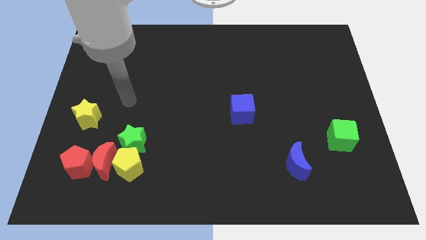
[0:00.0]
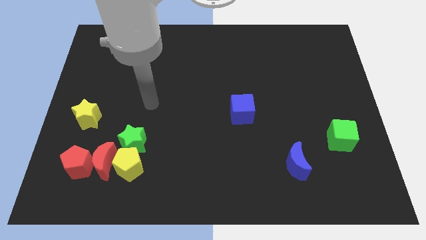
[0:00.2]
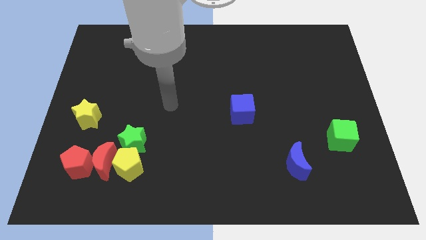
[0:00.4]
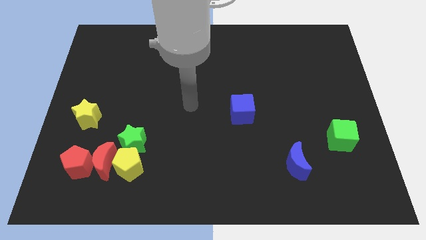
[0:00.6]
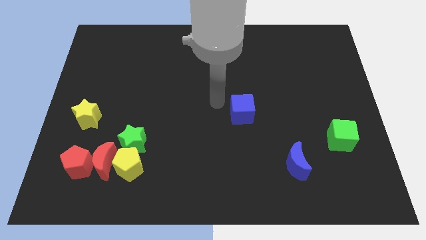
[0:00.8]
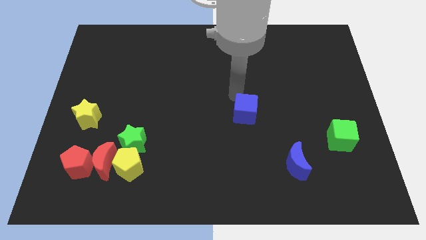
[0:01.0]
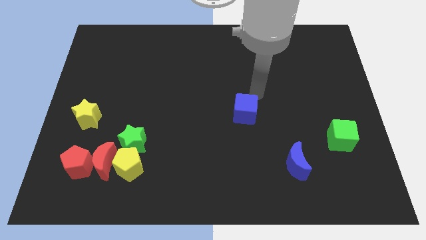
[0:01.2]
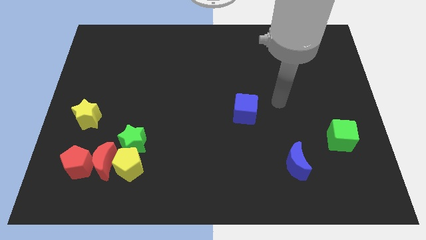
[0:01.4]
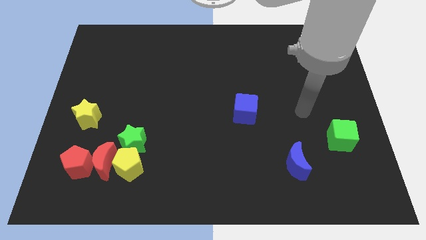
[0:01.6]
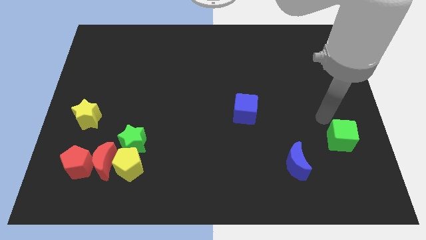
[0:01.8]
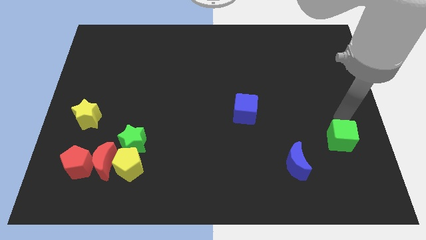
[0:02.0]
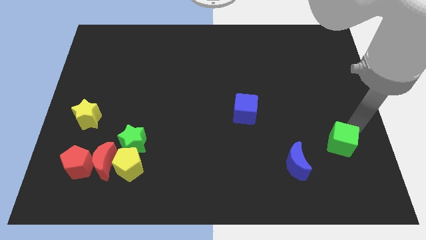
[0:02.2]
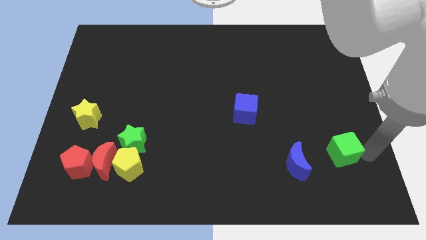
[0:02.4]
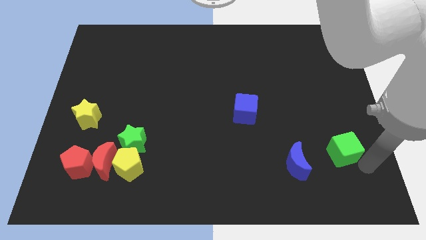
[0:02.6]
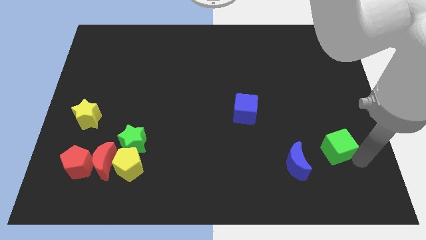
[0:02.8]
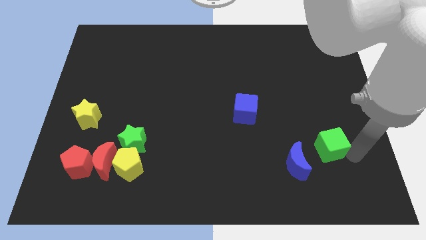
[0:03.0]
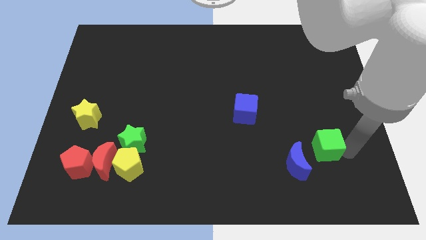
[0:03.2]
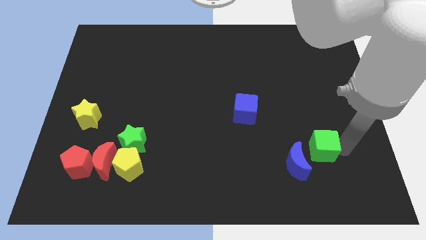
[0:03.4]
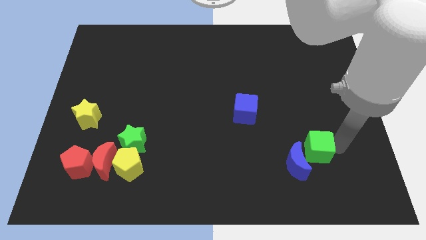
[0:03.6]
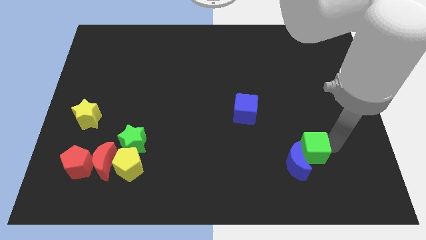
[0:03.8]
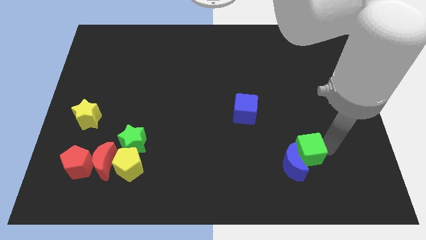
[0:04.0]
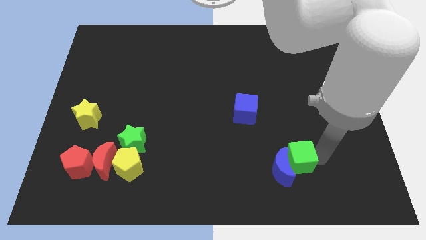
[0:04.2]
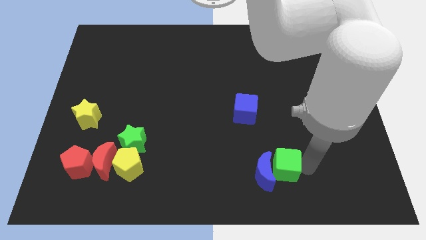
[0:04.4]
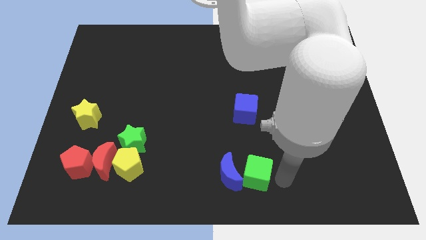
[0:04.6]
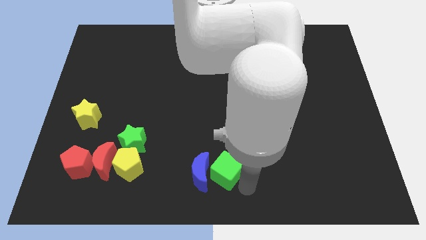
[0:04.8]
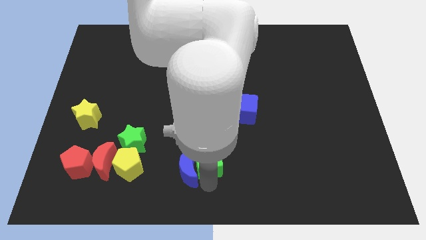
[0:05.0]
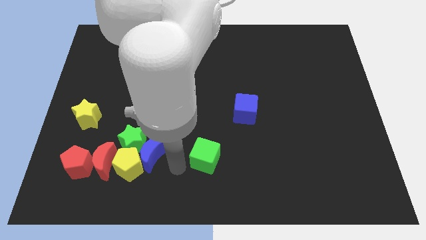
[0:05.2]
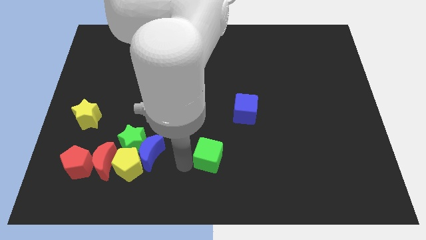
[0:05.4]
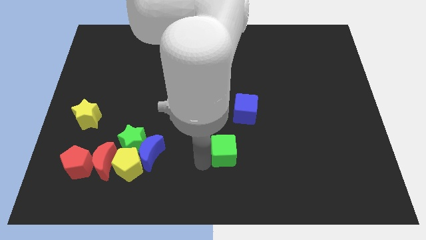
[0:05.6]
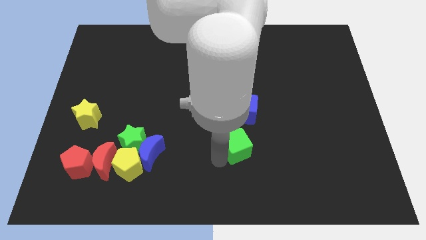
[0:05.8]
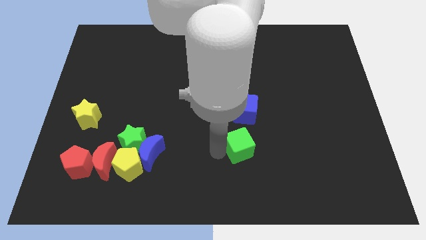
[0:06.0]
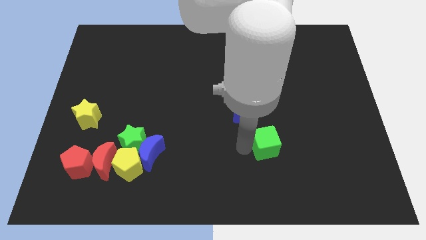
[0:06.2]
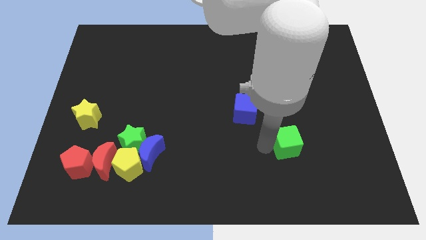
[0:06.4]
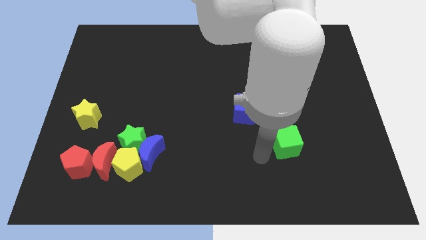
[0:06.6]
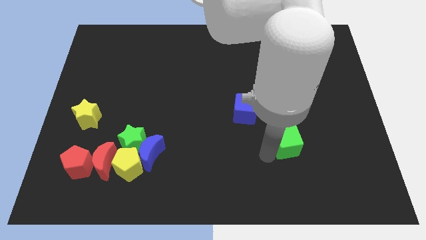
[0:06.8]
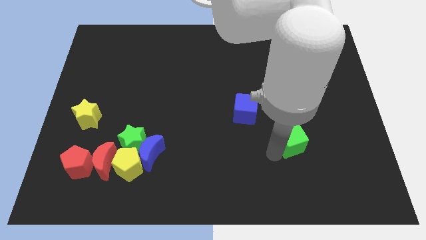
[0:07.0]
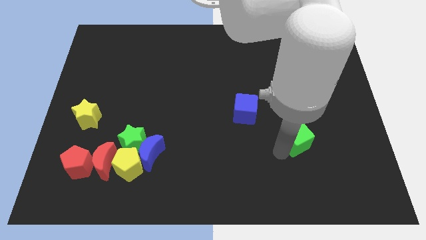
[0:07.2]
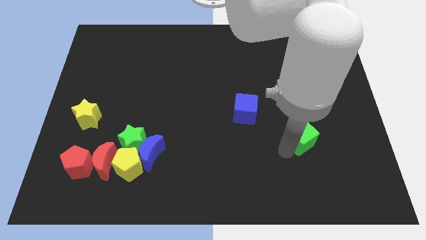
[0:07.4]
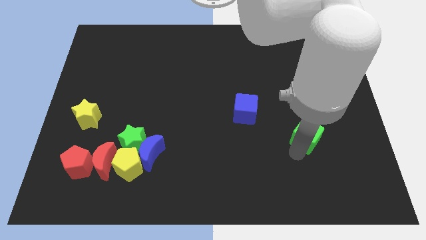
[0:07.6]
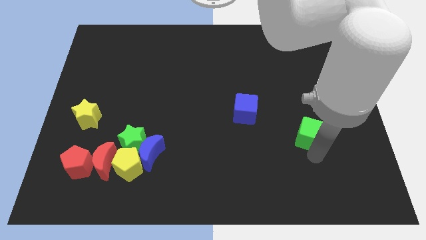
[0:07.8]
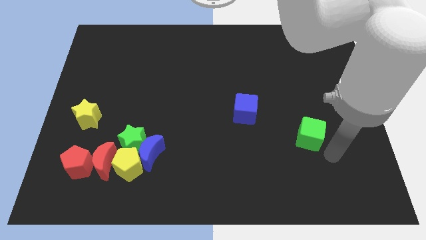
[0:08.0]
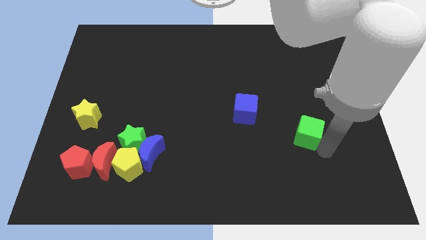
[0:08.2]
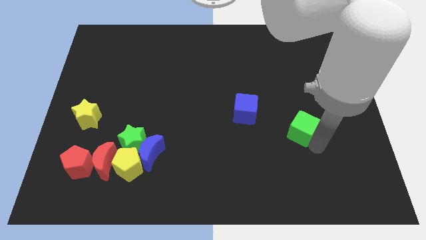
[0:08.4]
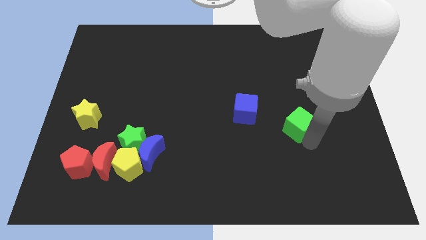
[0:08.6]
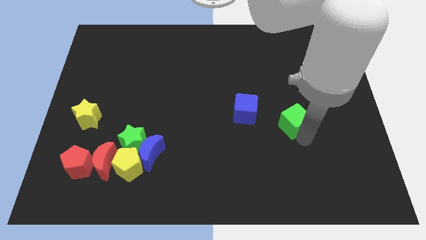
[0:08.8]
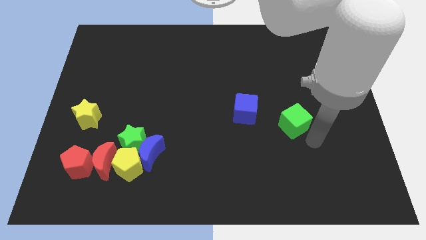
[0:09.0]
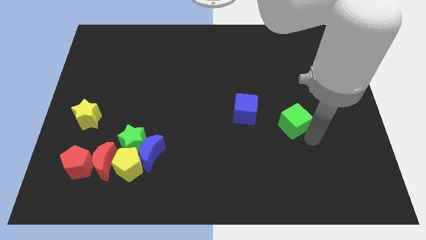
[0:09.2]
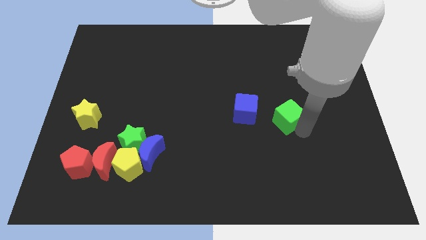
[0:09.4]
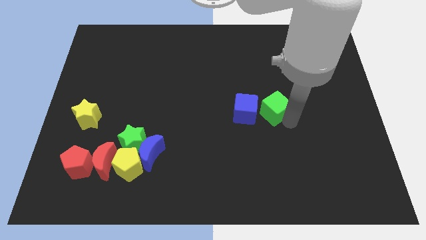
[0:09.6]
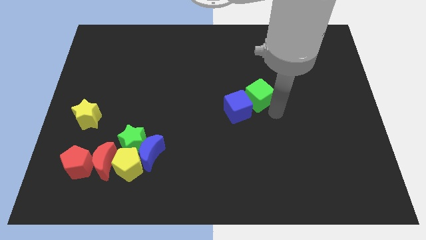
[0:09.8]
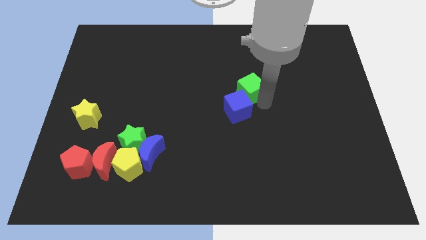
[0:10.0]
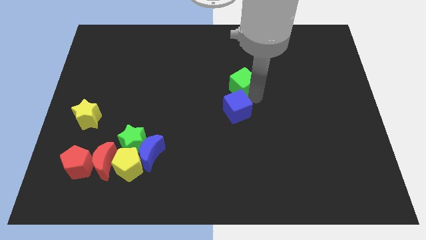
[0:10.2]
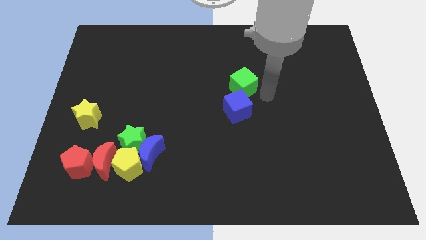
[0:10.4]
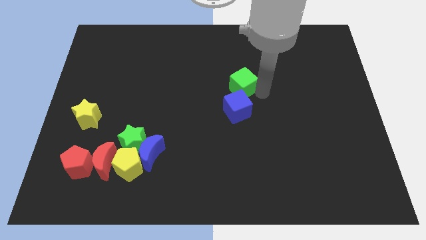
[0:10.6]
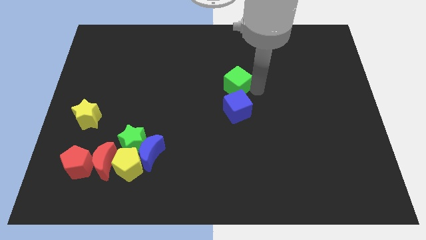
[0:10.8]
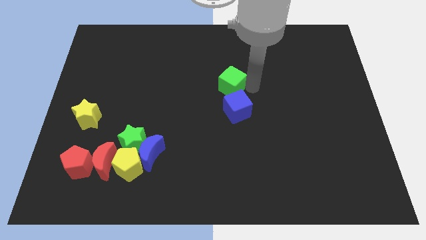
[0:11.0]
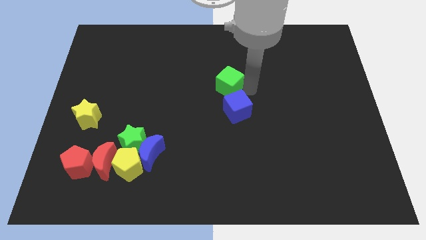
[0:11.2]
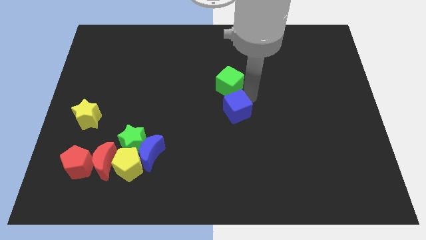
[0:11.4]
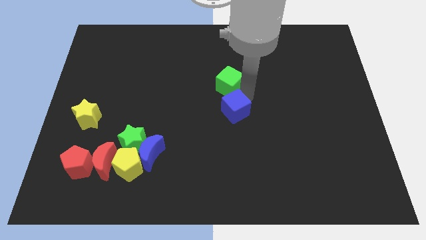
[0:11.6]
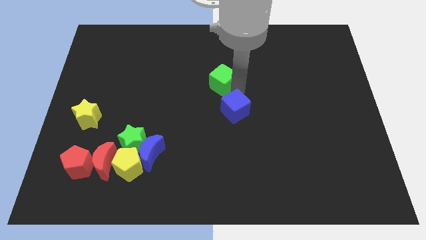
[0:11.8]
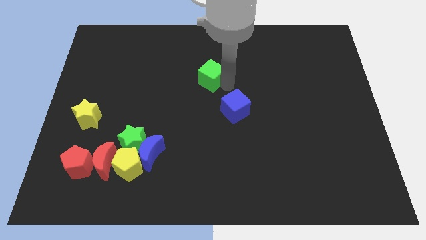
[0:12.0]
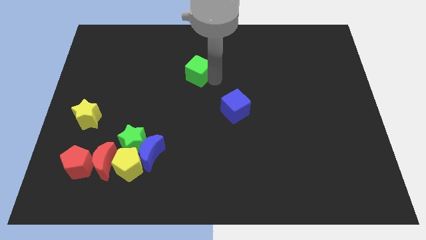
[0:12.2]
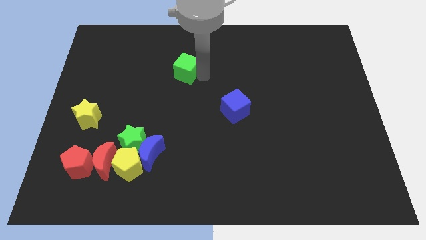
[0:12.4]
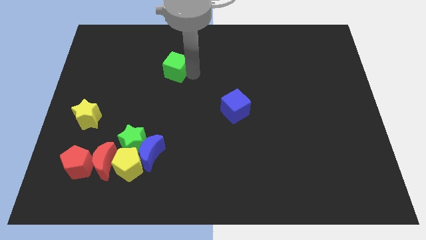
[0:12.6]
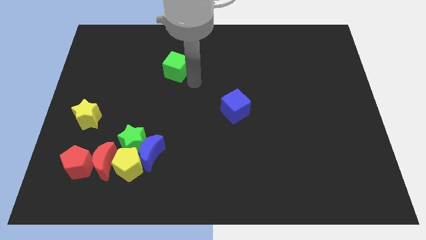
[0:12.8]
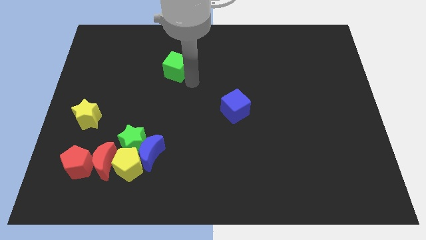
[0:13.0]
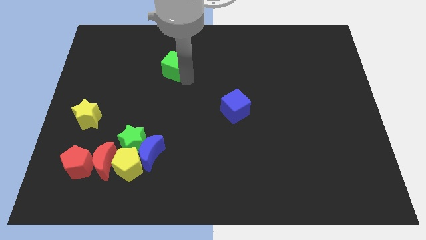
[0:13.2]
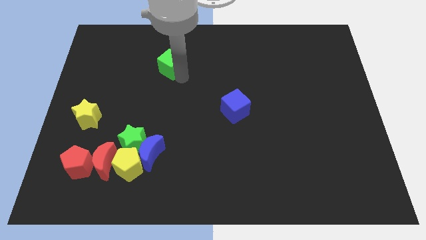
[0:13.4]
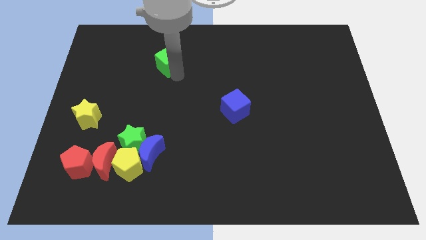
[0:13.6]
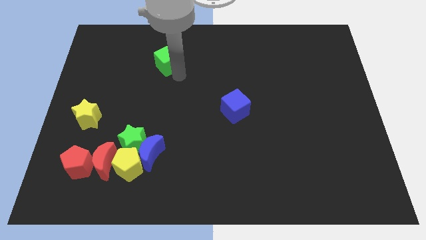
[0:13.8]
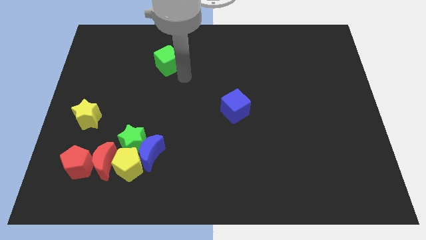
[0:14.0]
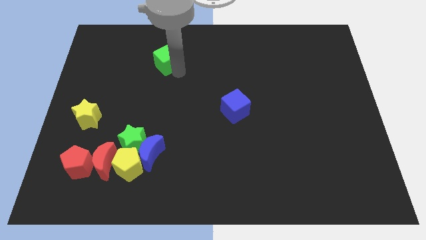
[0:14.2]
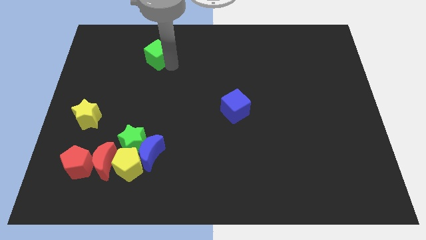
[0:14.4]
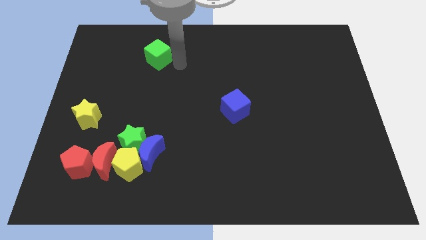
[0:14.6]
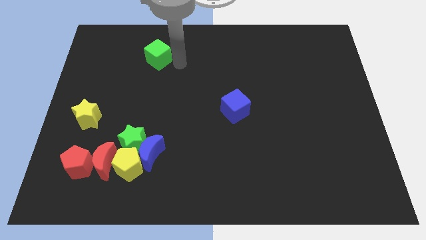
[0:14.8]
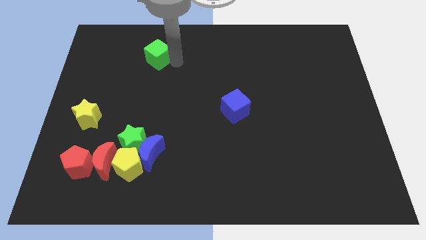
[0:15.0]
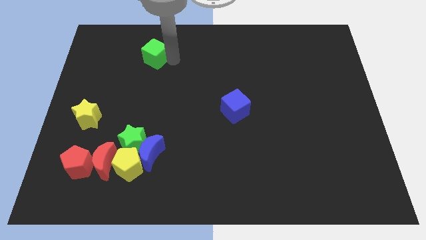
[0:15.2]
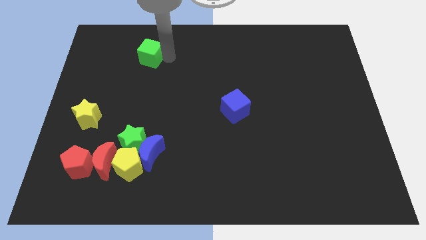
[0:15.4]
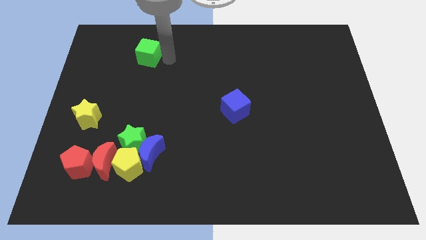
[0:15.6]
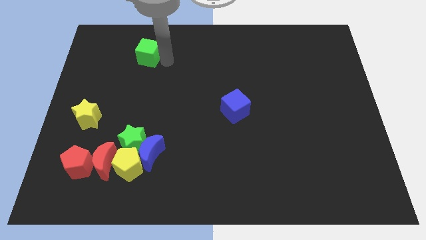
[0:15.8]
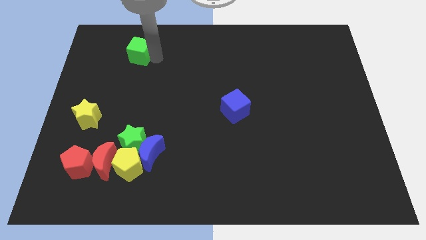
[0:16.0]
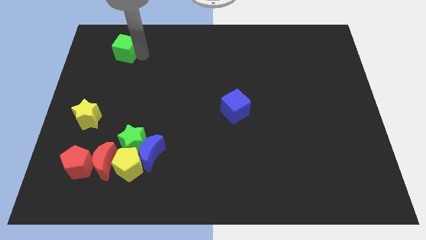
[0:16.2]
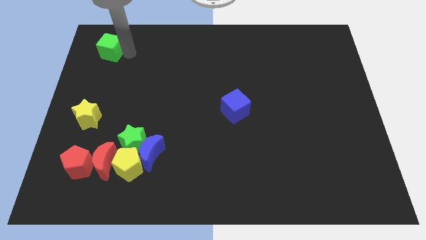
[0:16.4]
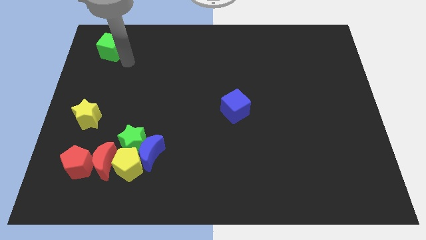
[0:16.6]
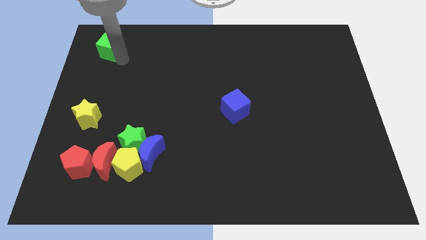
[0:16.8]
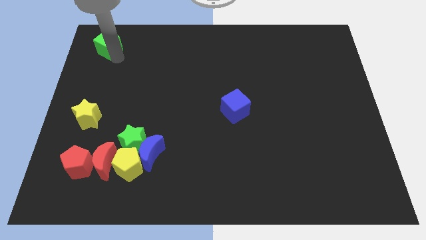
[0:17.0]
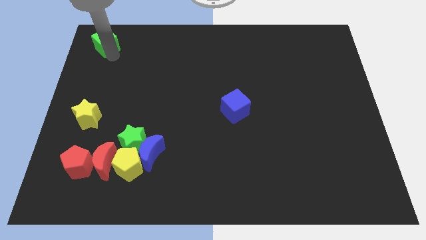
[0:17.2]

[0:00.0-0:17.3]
move the green cube to the top left of the board
